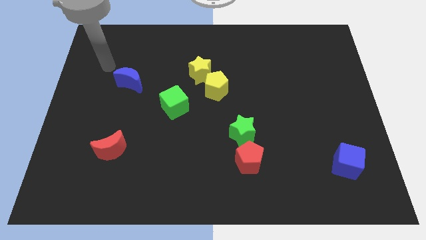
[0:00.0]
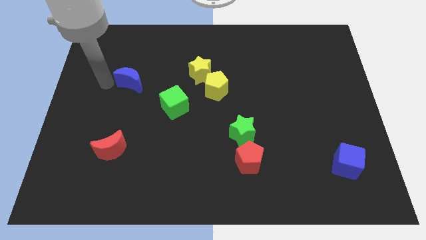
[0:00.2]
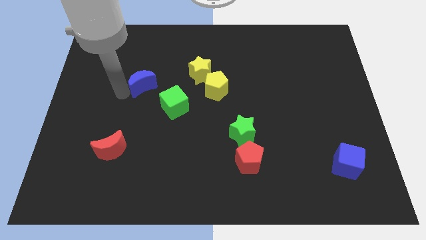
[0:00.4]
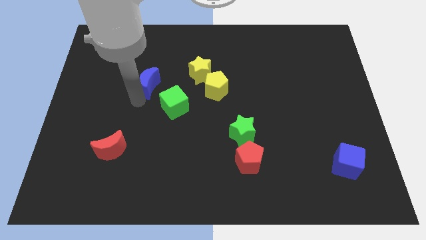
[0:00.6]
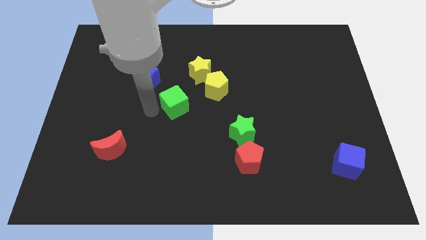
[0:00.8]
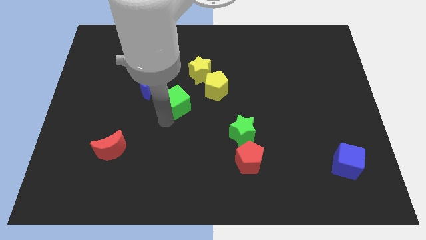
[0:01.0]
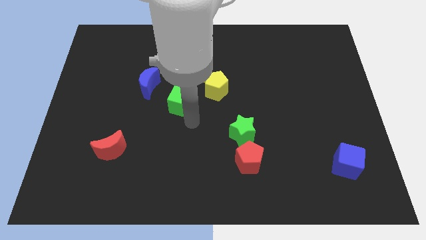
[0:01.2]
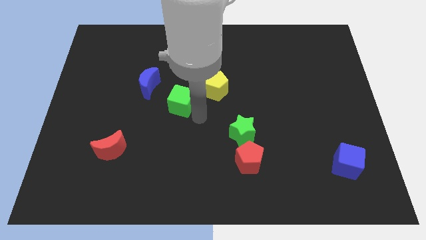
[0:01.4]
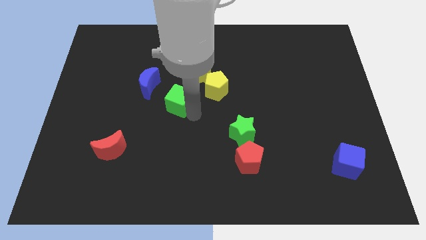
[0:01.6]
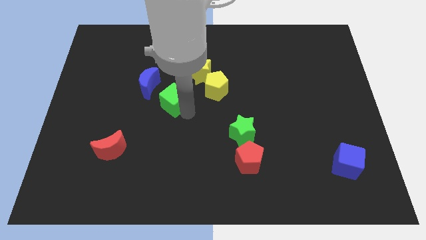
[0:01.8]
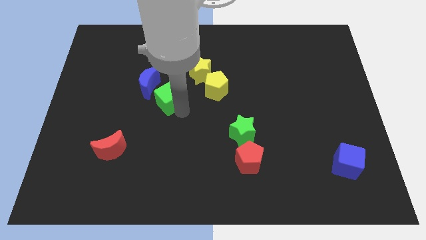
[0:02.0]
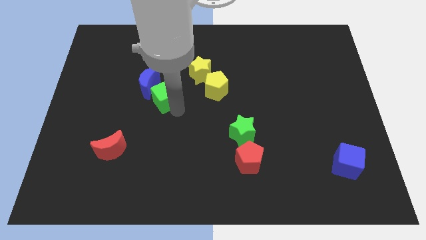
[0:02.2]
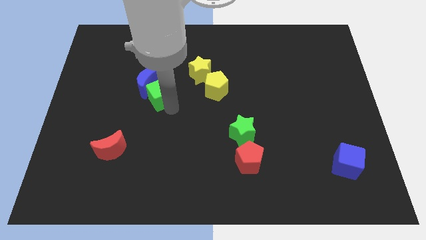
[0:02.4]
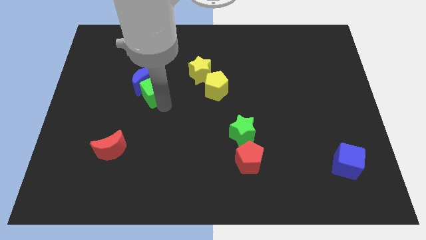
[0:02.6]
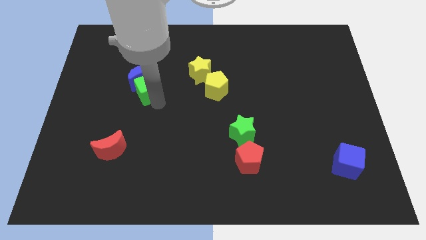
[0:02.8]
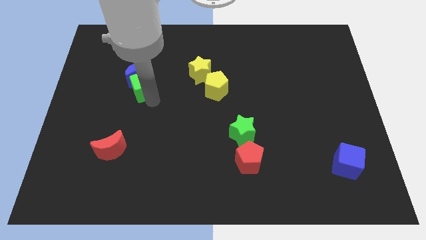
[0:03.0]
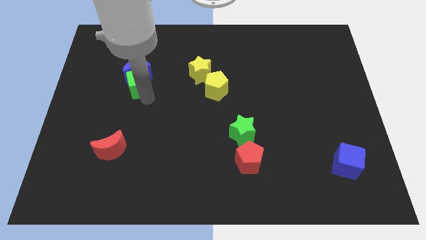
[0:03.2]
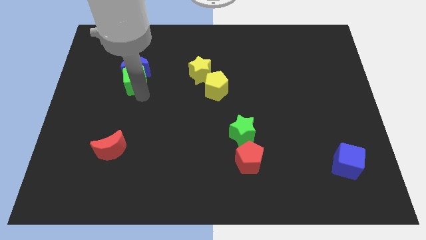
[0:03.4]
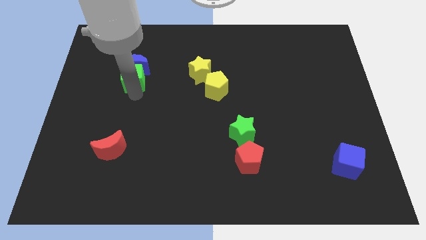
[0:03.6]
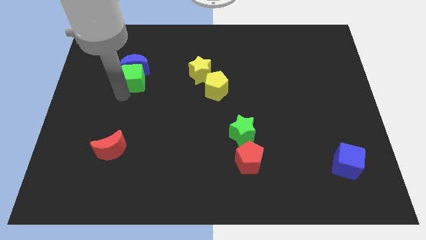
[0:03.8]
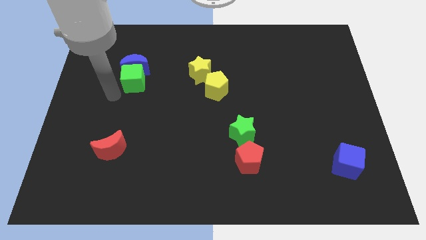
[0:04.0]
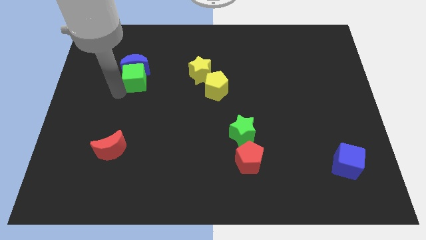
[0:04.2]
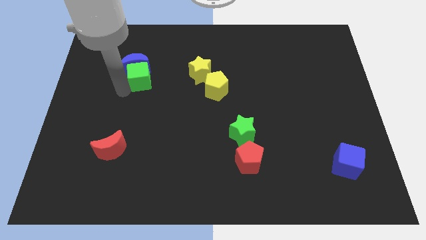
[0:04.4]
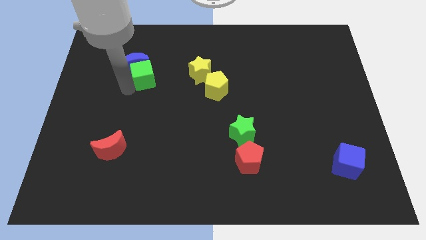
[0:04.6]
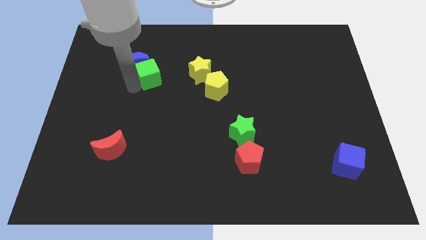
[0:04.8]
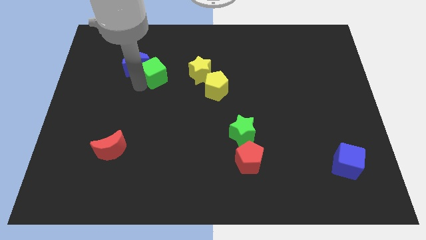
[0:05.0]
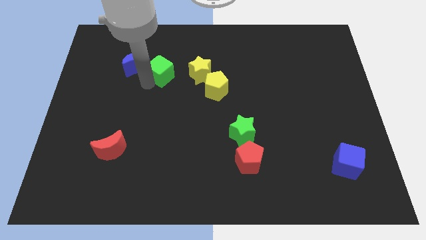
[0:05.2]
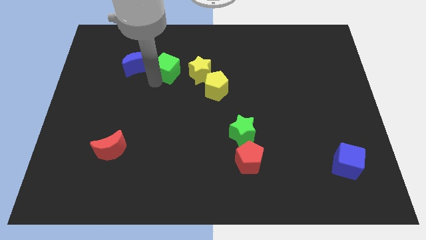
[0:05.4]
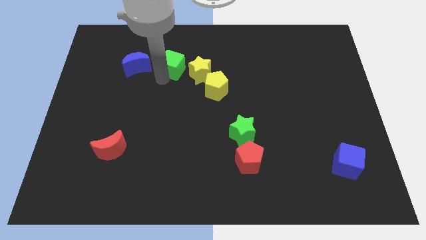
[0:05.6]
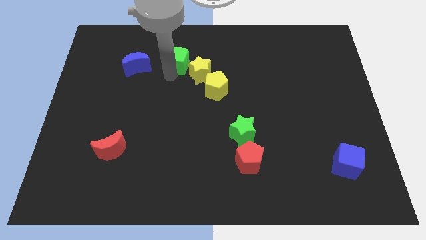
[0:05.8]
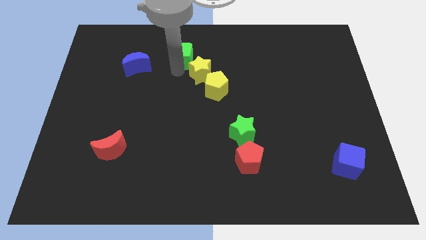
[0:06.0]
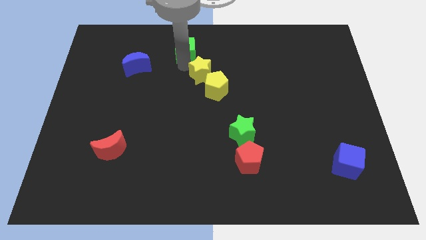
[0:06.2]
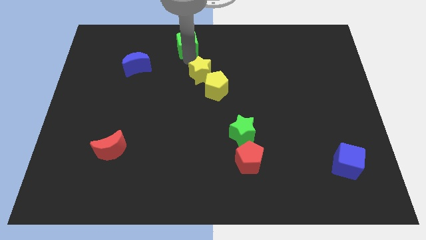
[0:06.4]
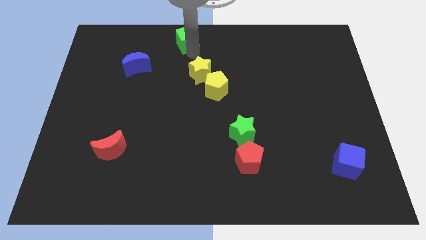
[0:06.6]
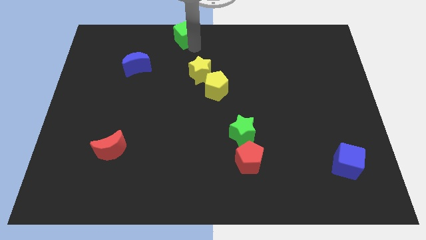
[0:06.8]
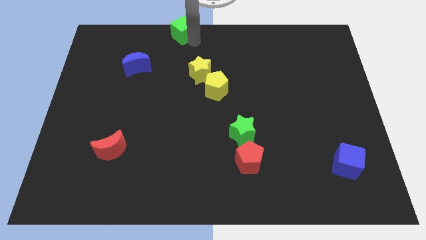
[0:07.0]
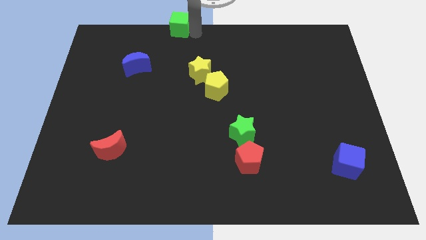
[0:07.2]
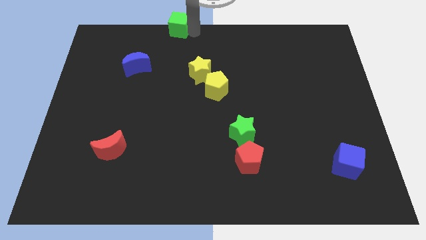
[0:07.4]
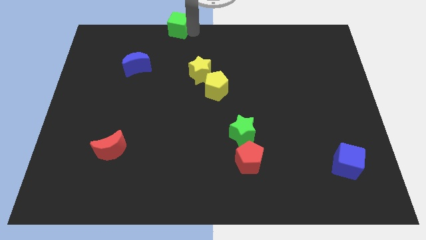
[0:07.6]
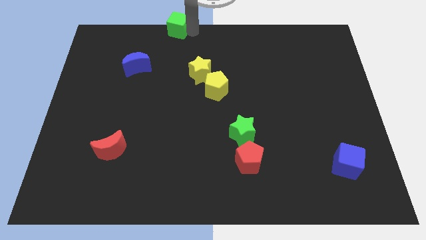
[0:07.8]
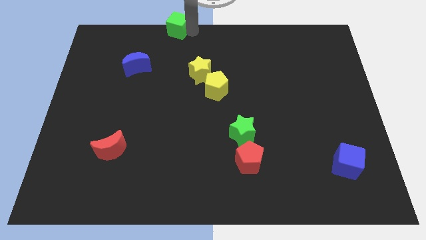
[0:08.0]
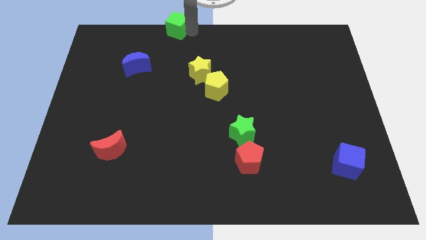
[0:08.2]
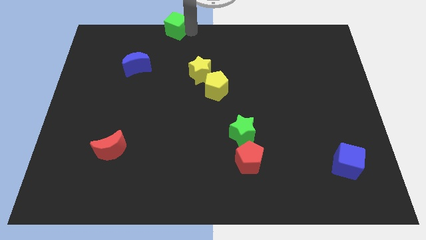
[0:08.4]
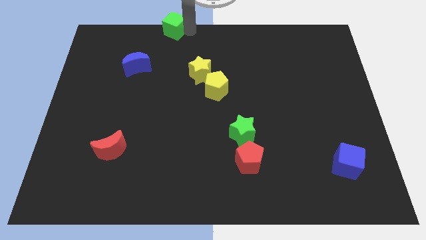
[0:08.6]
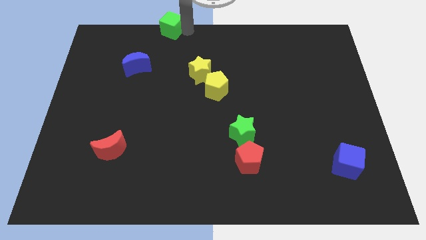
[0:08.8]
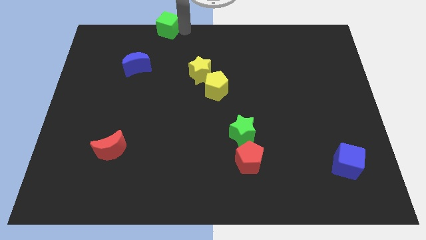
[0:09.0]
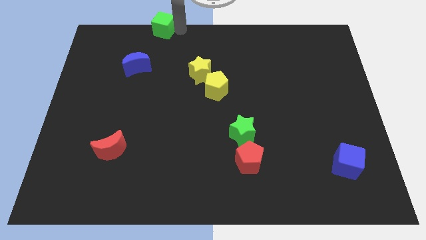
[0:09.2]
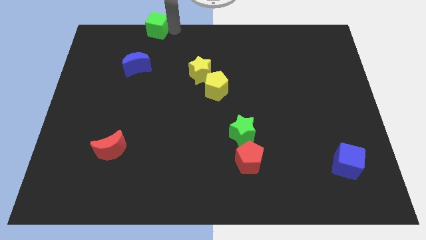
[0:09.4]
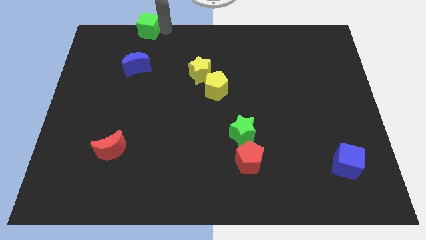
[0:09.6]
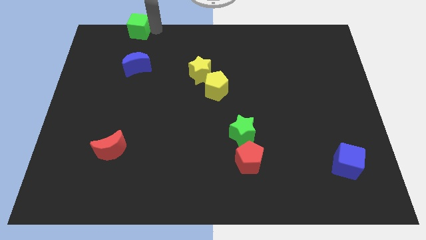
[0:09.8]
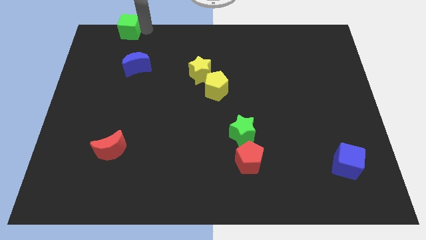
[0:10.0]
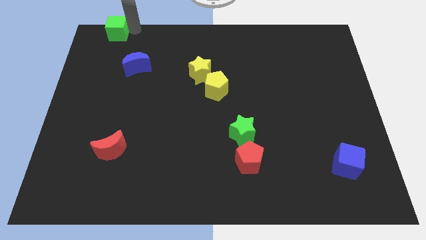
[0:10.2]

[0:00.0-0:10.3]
move the green cube to the upper left corner

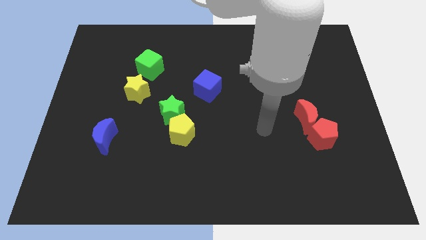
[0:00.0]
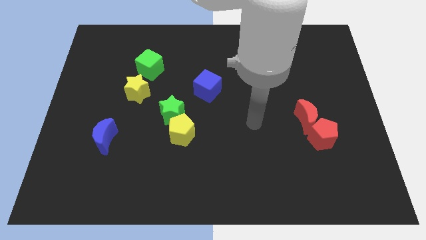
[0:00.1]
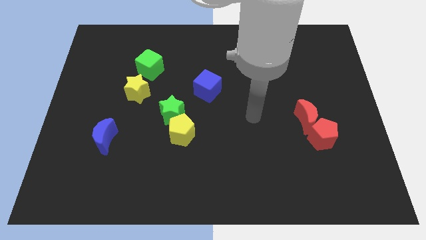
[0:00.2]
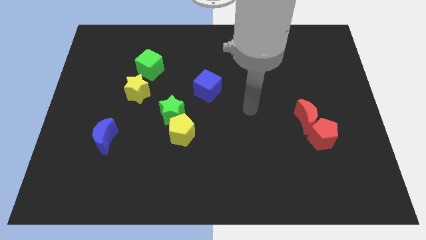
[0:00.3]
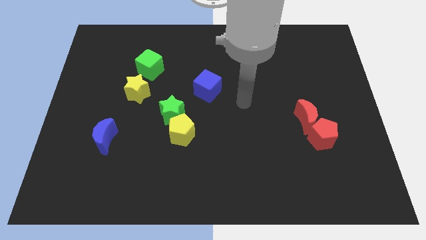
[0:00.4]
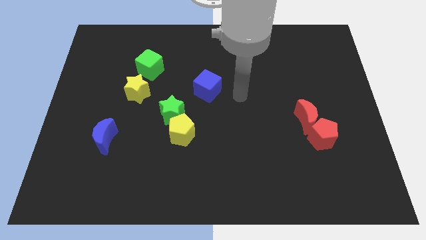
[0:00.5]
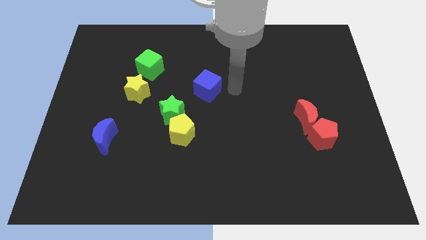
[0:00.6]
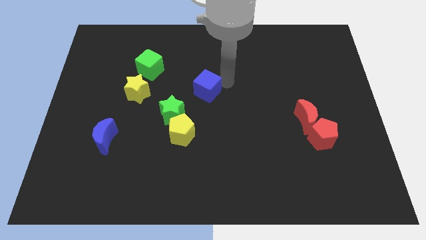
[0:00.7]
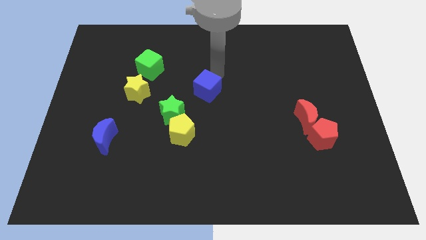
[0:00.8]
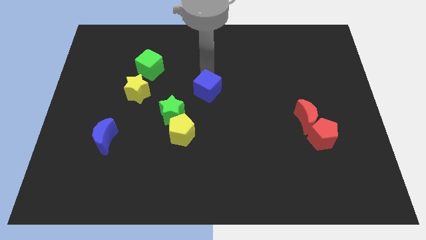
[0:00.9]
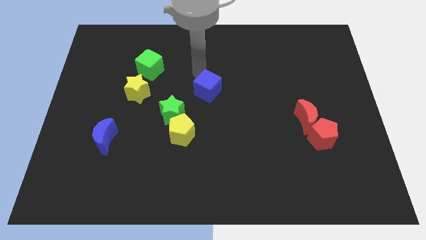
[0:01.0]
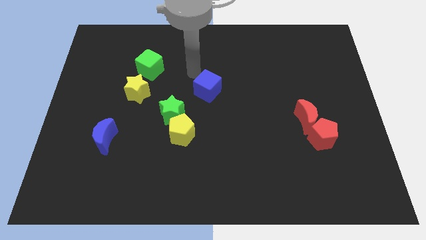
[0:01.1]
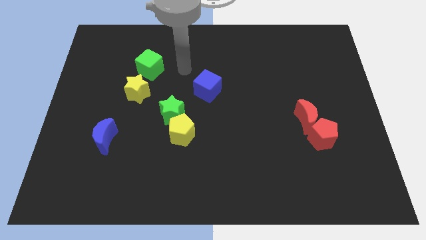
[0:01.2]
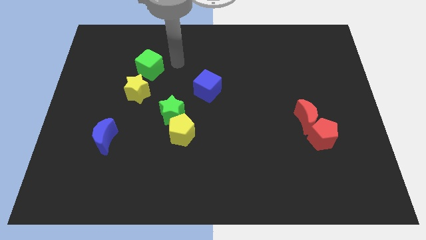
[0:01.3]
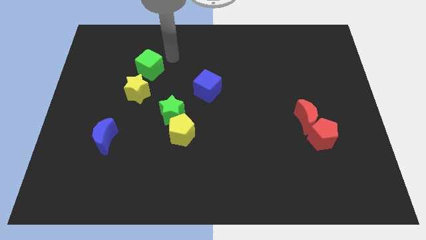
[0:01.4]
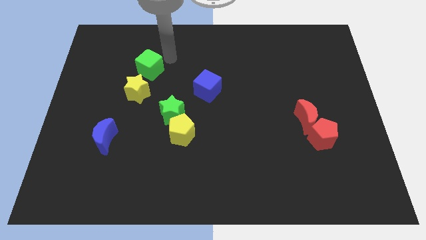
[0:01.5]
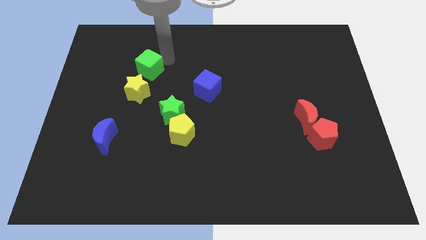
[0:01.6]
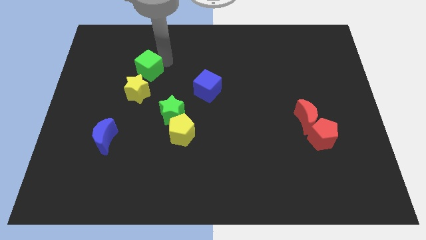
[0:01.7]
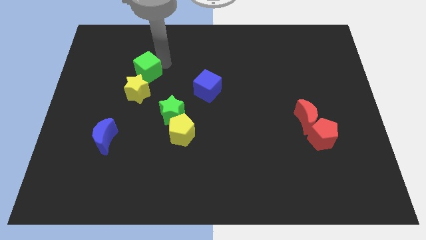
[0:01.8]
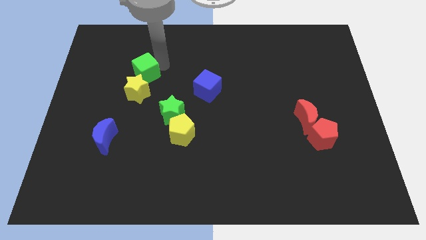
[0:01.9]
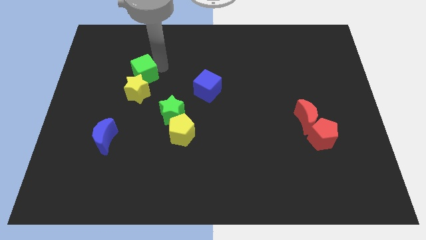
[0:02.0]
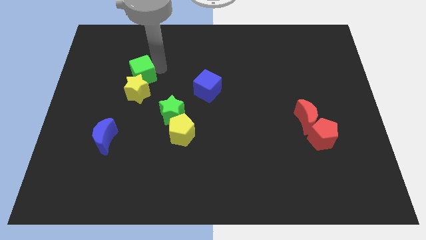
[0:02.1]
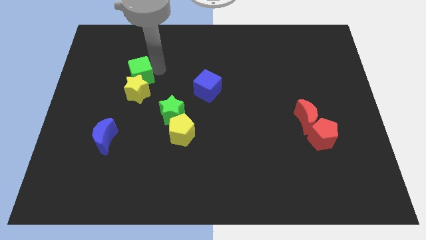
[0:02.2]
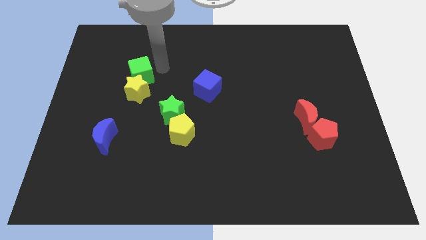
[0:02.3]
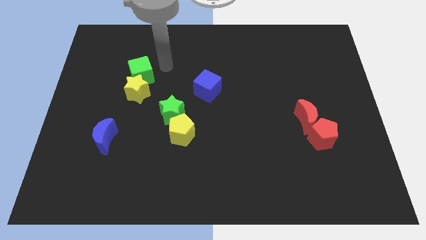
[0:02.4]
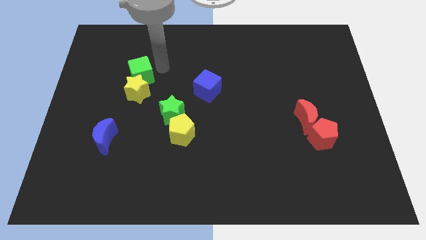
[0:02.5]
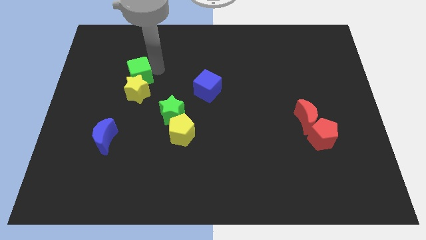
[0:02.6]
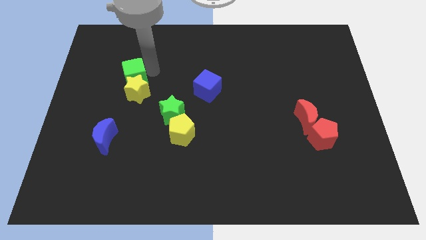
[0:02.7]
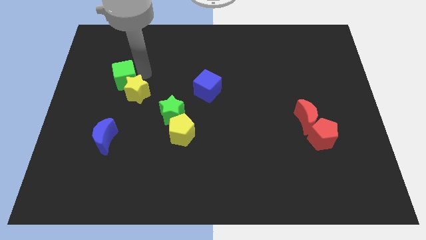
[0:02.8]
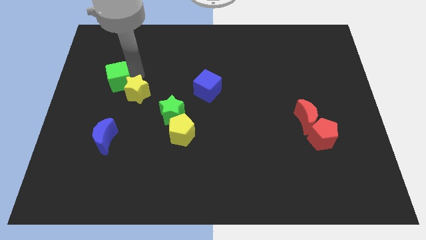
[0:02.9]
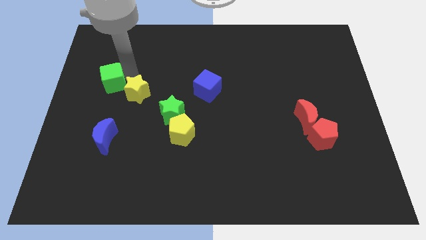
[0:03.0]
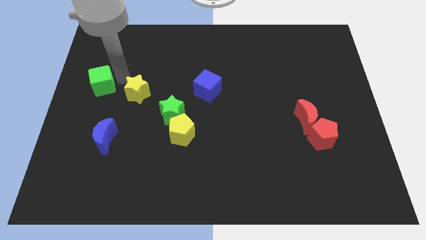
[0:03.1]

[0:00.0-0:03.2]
move the green cube to the center left
